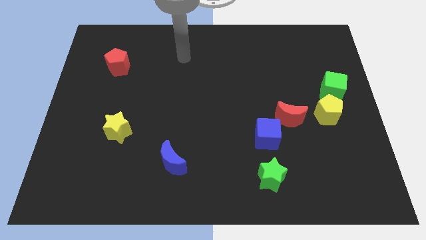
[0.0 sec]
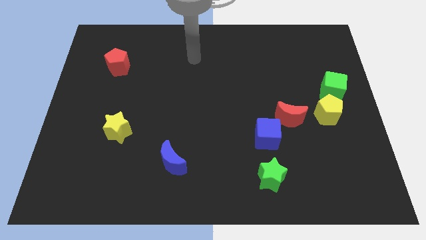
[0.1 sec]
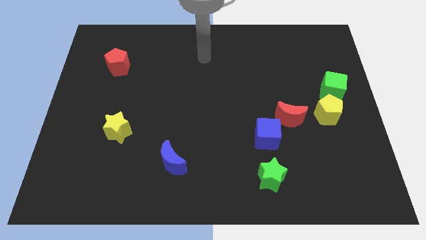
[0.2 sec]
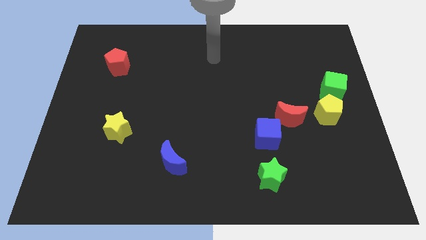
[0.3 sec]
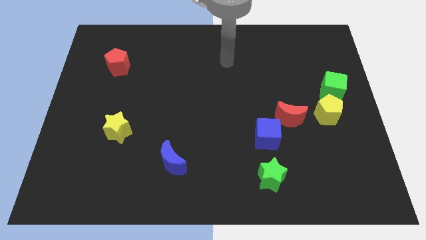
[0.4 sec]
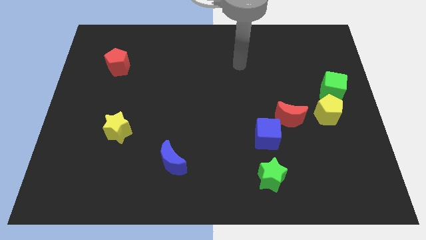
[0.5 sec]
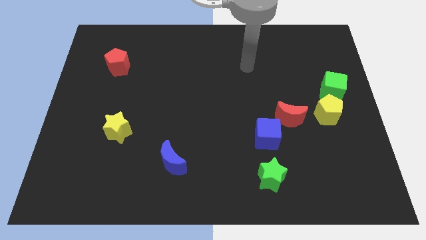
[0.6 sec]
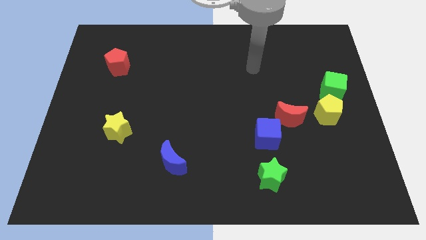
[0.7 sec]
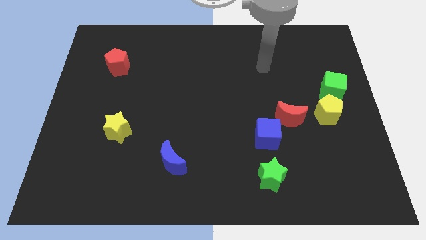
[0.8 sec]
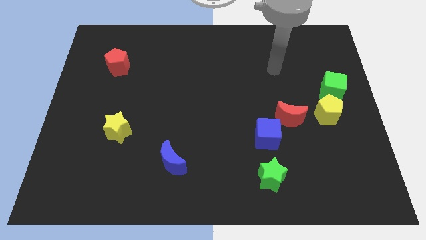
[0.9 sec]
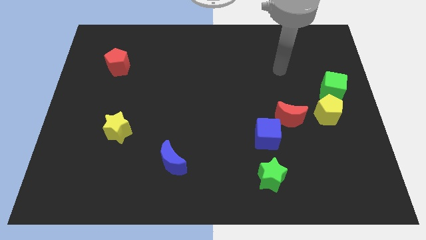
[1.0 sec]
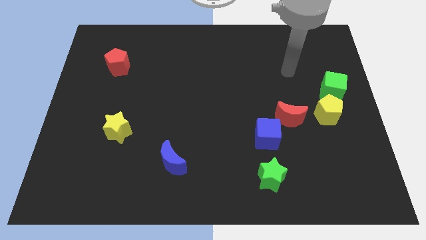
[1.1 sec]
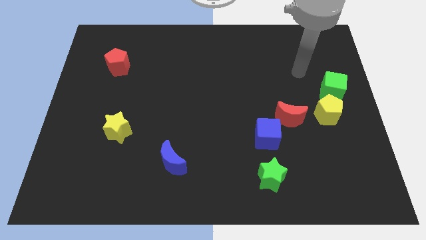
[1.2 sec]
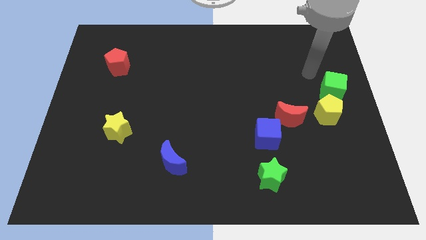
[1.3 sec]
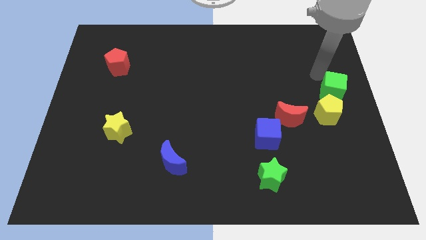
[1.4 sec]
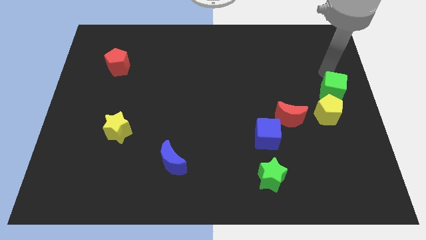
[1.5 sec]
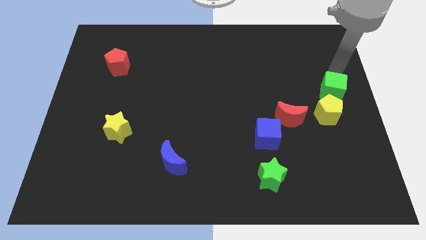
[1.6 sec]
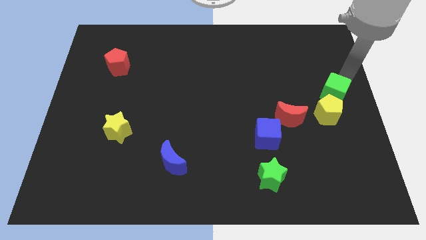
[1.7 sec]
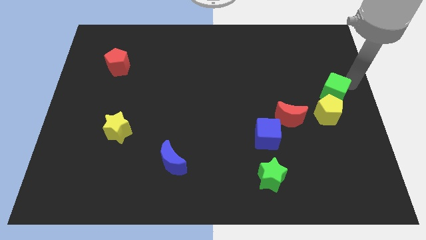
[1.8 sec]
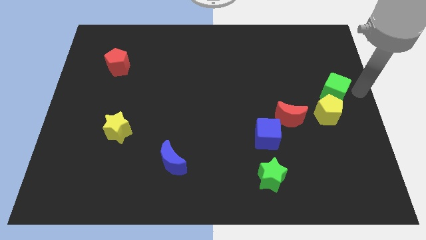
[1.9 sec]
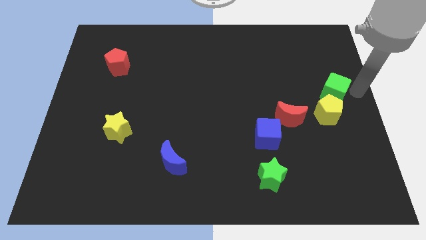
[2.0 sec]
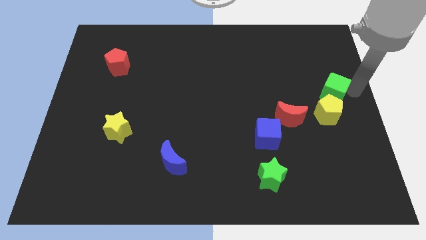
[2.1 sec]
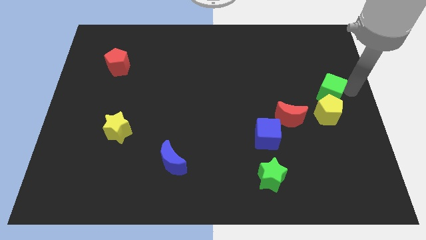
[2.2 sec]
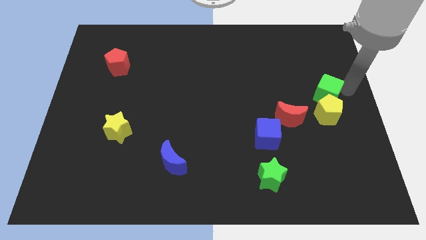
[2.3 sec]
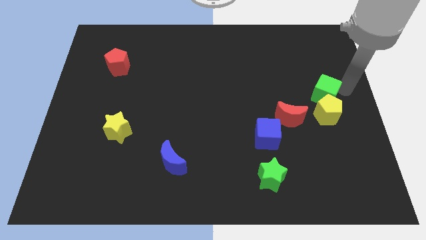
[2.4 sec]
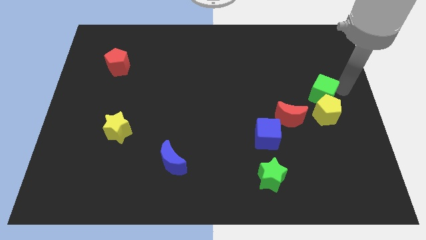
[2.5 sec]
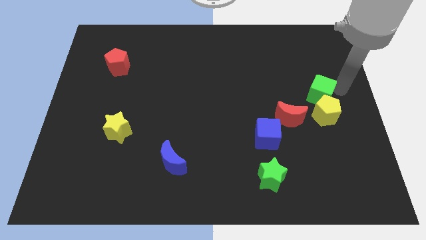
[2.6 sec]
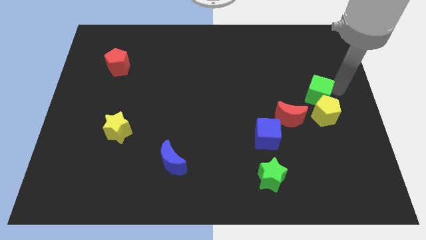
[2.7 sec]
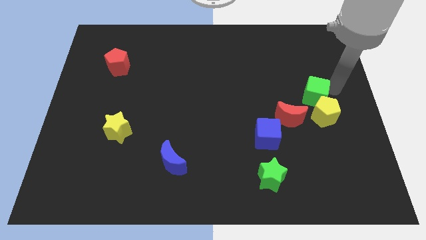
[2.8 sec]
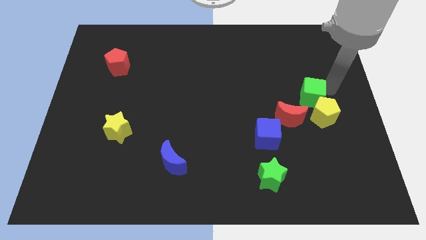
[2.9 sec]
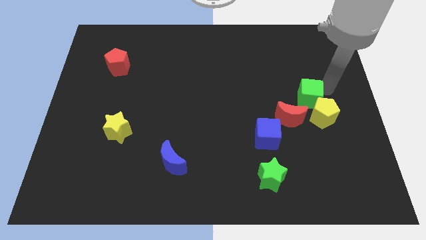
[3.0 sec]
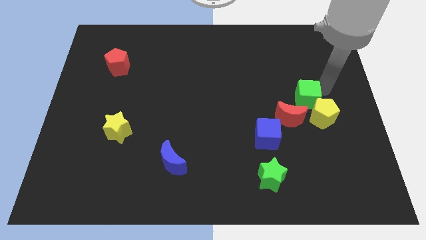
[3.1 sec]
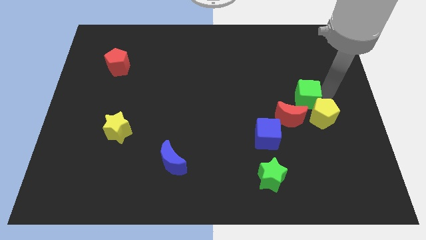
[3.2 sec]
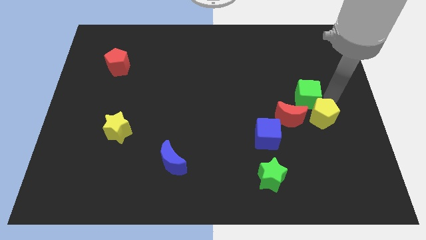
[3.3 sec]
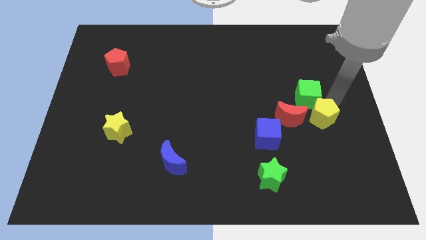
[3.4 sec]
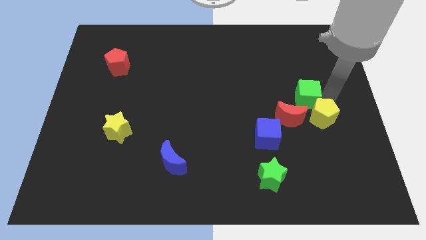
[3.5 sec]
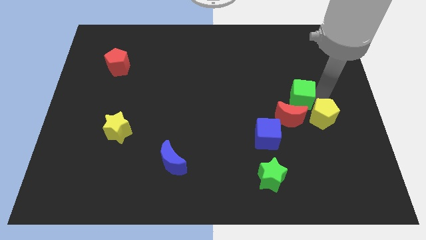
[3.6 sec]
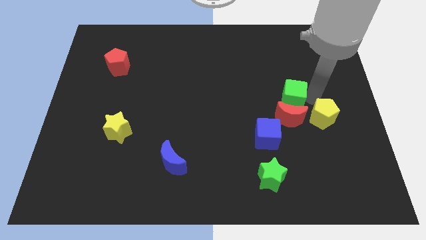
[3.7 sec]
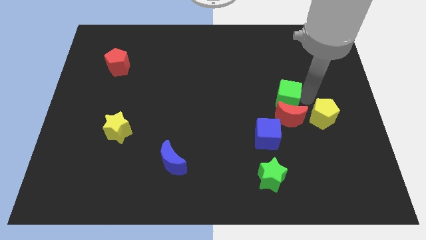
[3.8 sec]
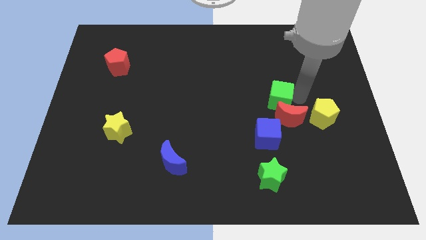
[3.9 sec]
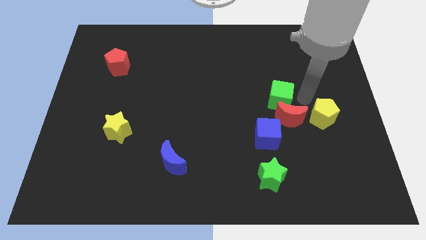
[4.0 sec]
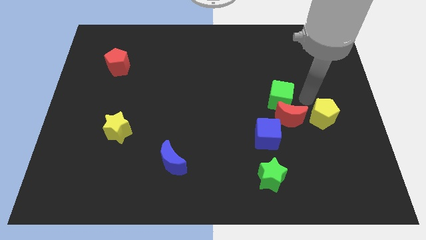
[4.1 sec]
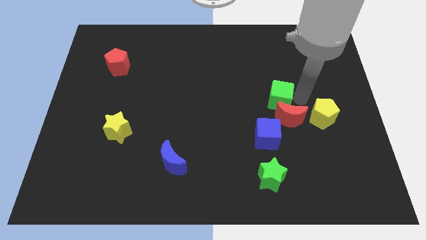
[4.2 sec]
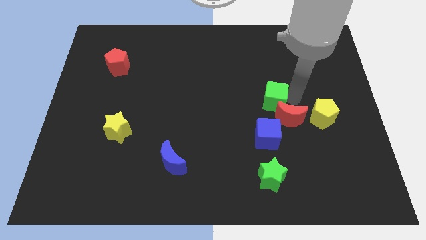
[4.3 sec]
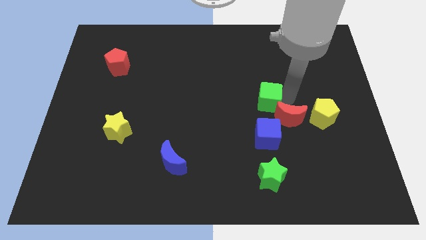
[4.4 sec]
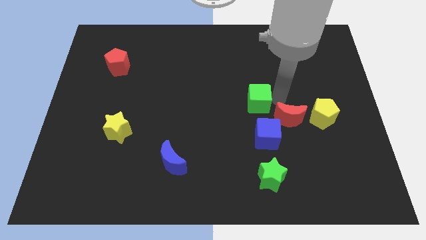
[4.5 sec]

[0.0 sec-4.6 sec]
slide the green cube to the middle of the board

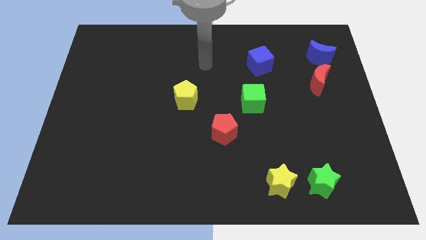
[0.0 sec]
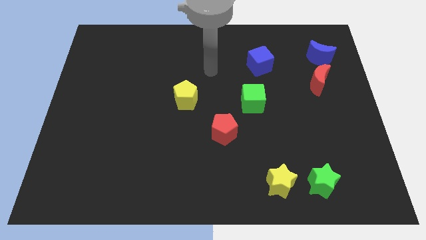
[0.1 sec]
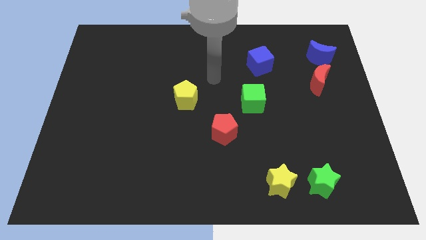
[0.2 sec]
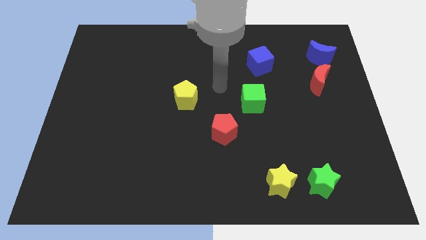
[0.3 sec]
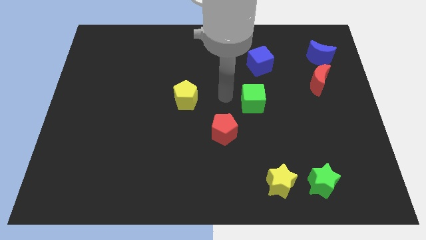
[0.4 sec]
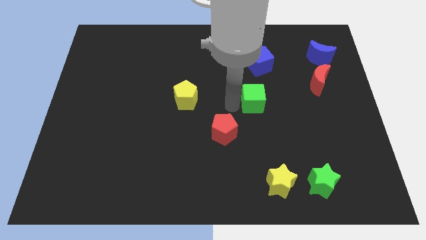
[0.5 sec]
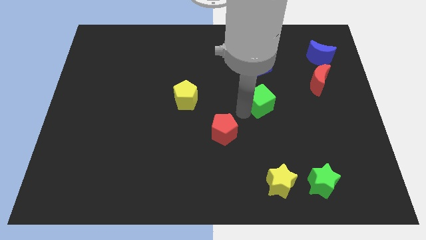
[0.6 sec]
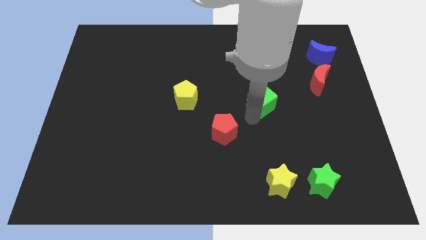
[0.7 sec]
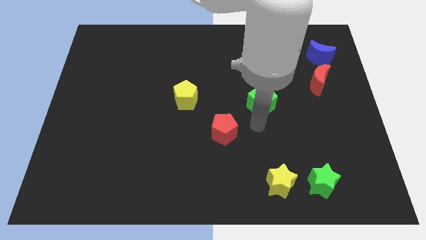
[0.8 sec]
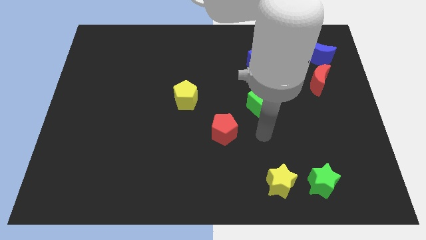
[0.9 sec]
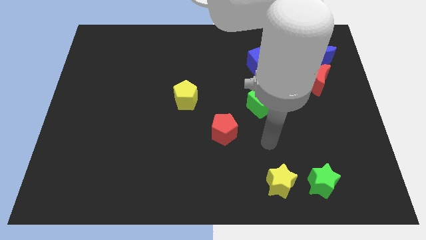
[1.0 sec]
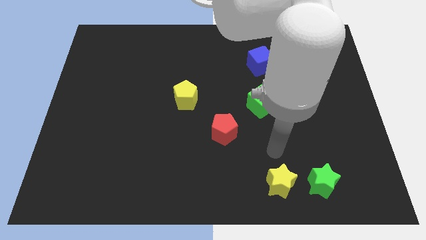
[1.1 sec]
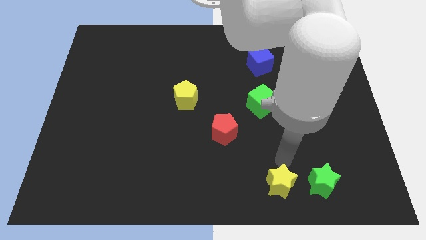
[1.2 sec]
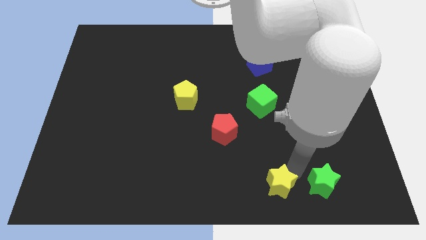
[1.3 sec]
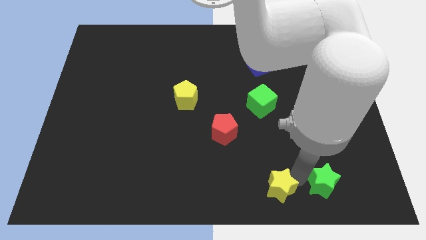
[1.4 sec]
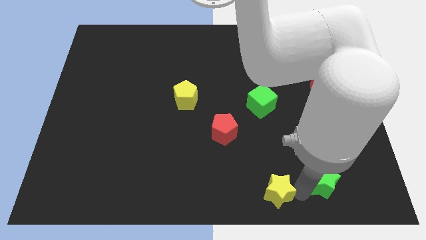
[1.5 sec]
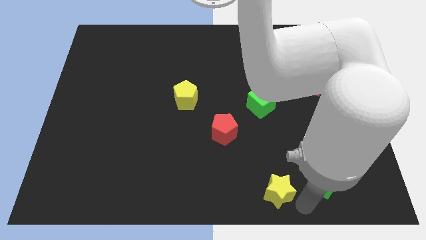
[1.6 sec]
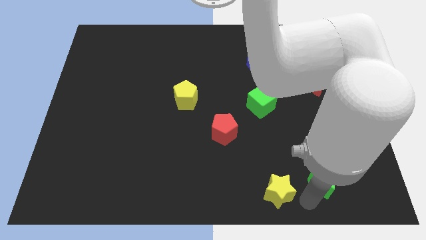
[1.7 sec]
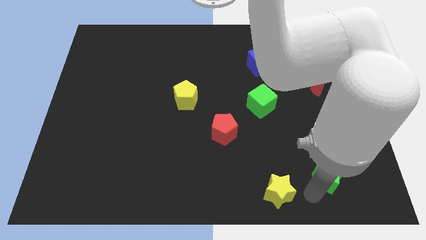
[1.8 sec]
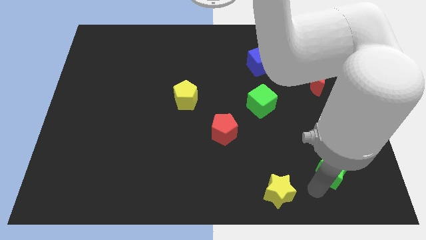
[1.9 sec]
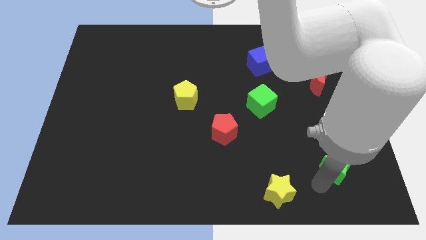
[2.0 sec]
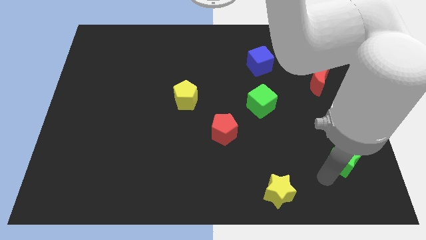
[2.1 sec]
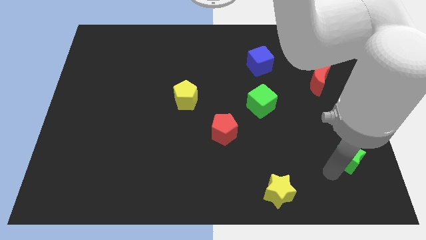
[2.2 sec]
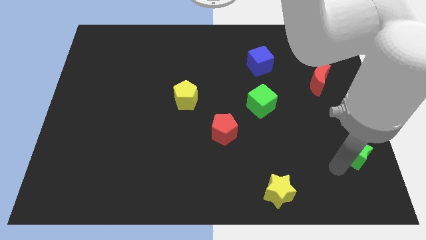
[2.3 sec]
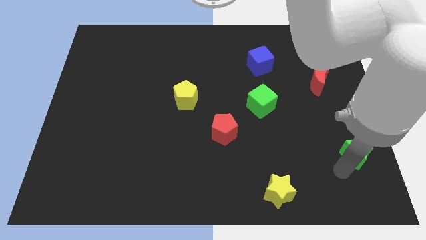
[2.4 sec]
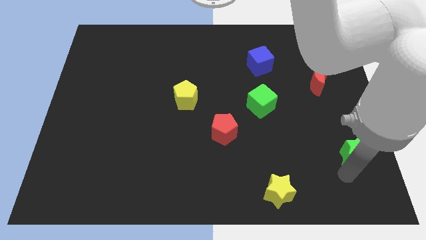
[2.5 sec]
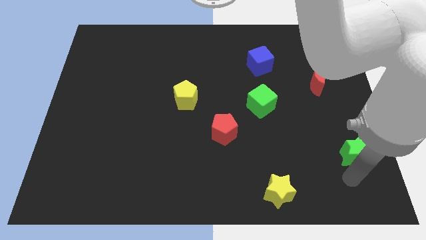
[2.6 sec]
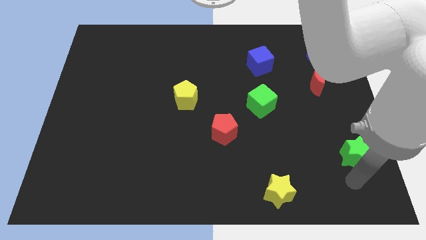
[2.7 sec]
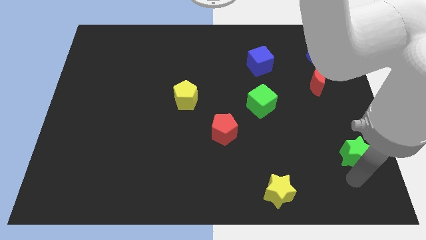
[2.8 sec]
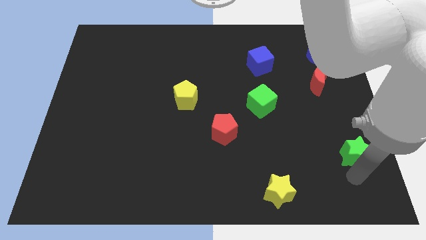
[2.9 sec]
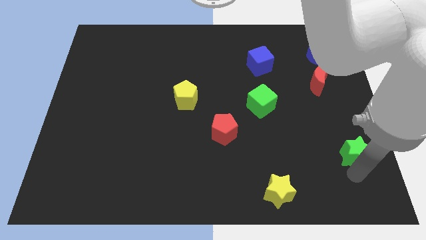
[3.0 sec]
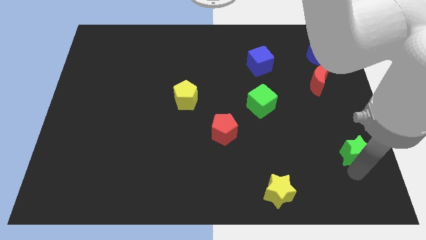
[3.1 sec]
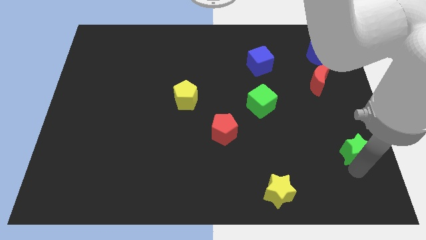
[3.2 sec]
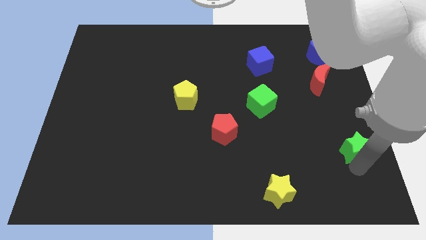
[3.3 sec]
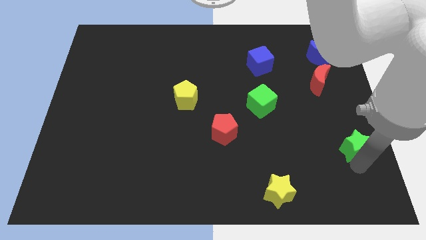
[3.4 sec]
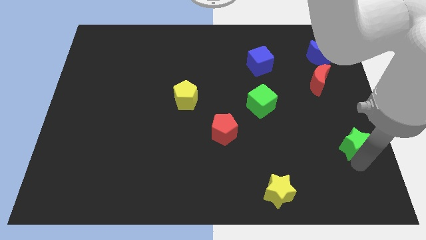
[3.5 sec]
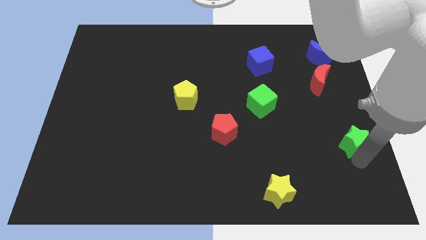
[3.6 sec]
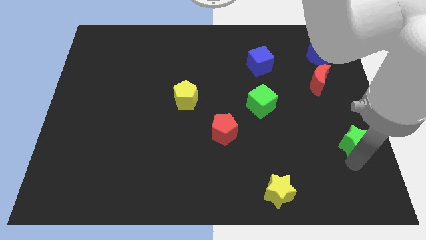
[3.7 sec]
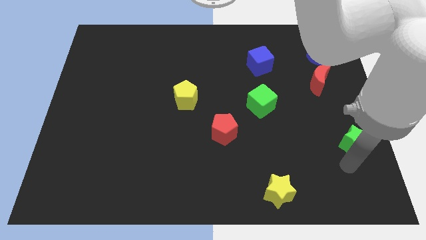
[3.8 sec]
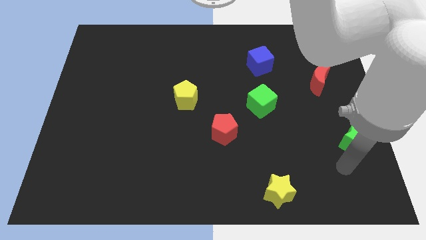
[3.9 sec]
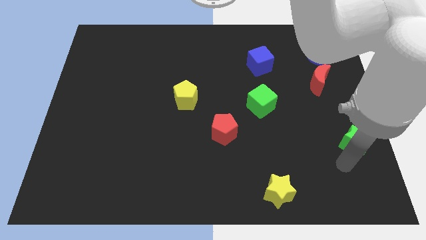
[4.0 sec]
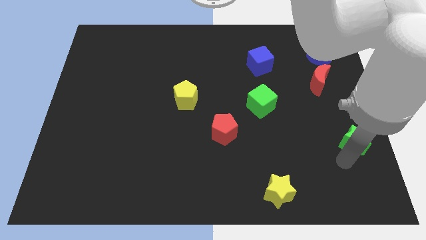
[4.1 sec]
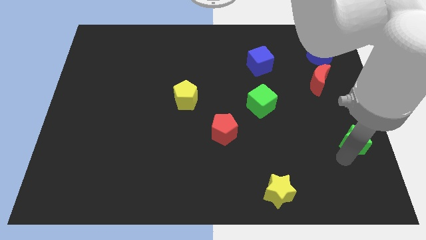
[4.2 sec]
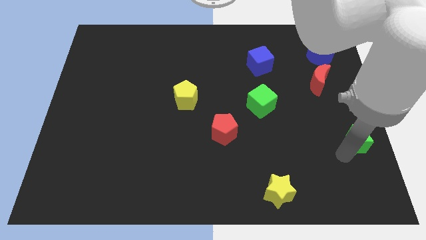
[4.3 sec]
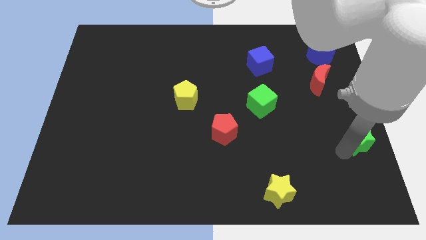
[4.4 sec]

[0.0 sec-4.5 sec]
put the green star to the center right
